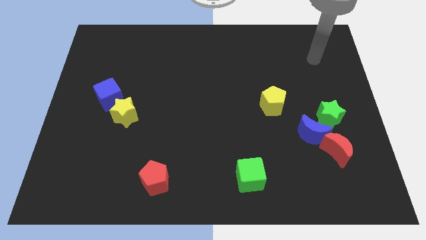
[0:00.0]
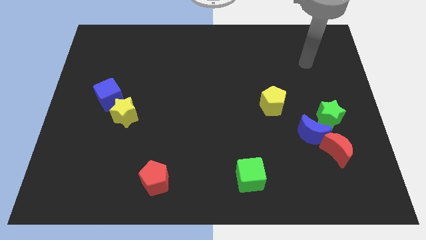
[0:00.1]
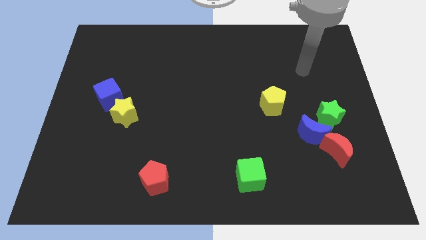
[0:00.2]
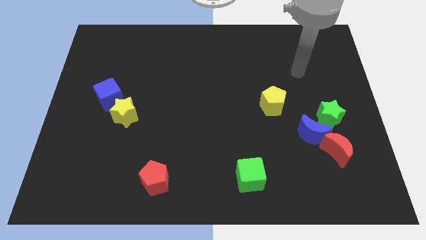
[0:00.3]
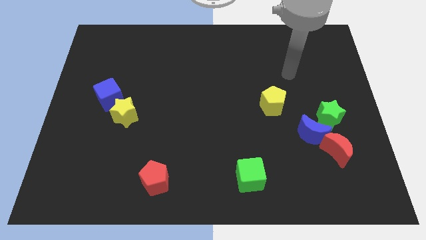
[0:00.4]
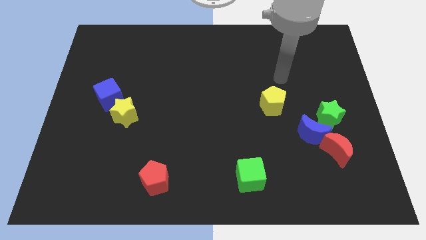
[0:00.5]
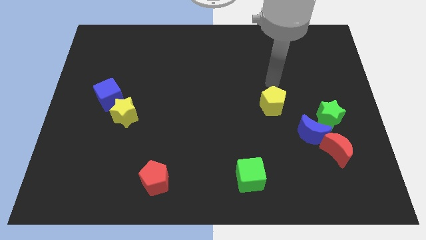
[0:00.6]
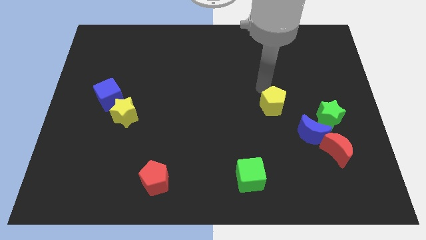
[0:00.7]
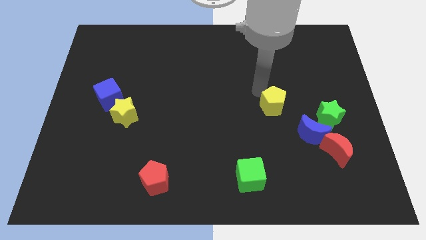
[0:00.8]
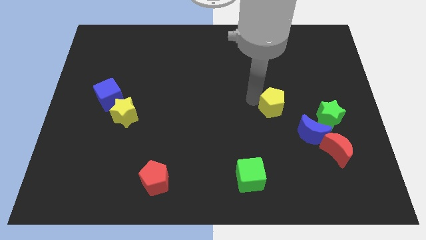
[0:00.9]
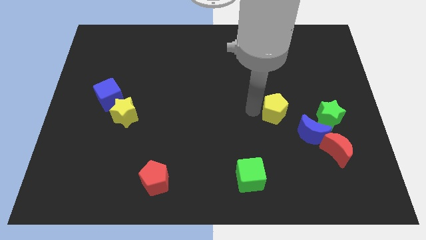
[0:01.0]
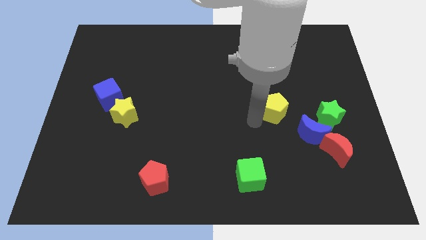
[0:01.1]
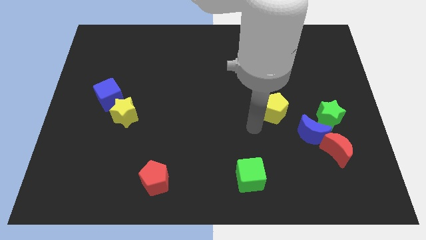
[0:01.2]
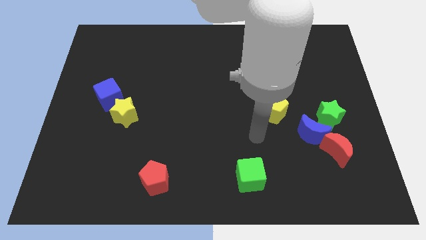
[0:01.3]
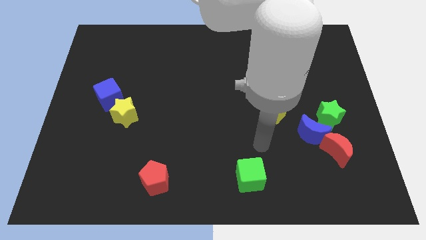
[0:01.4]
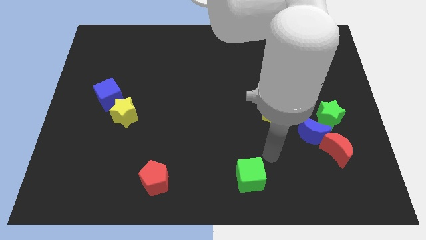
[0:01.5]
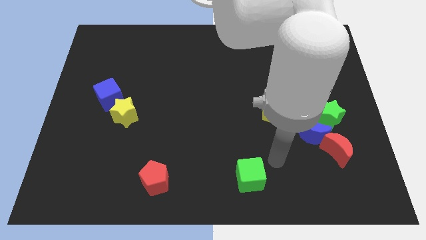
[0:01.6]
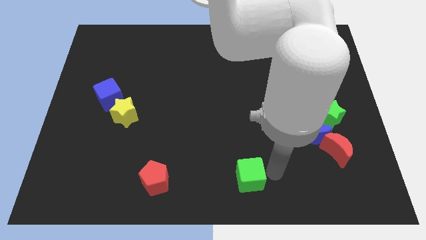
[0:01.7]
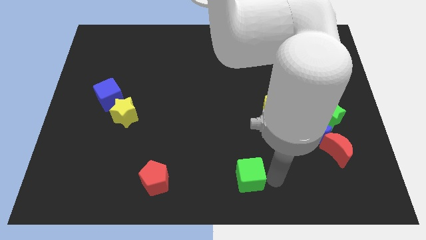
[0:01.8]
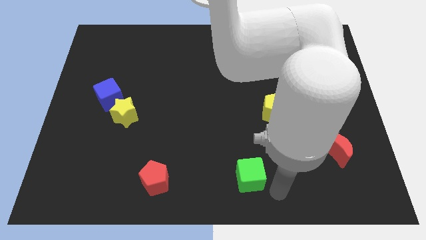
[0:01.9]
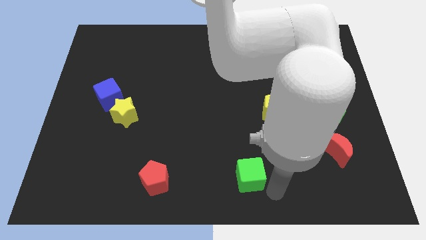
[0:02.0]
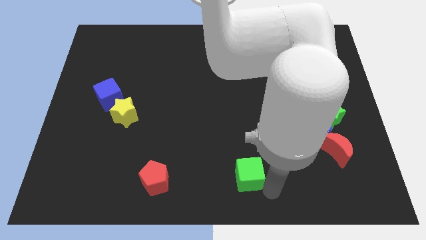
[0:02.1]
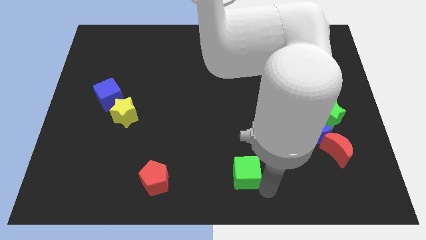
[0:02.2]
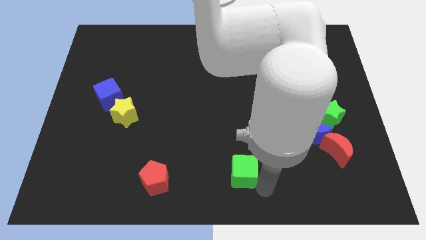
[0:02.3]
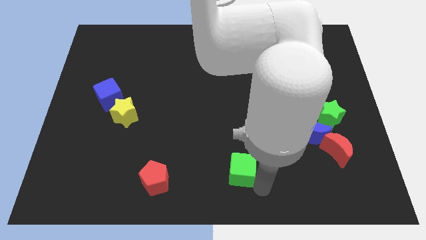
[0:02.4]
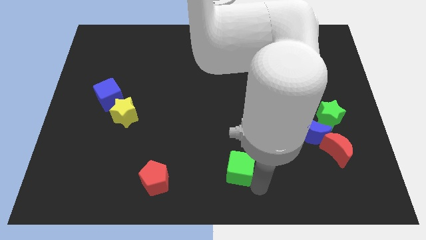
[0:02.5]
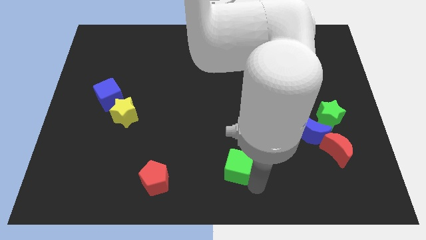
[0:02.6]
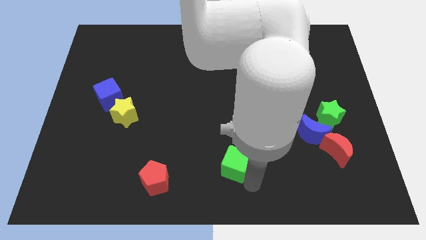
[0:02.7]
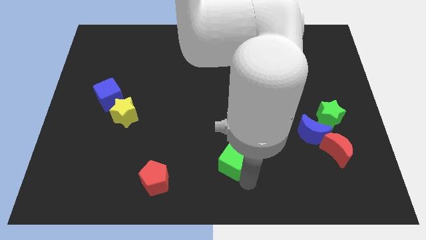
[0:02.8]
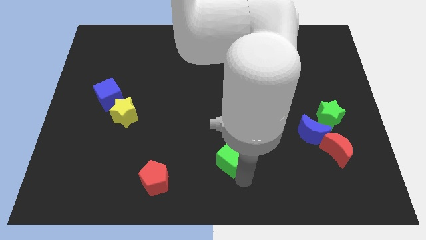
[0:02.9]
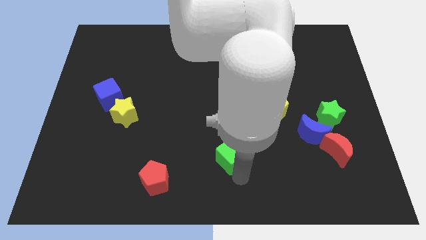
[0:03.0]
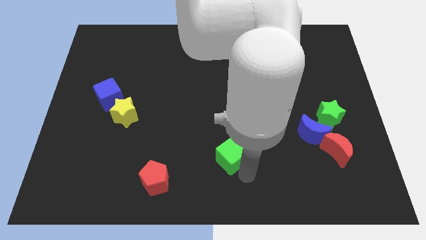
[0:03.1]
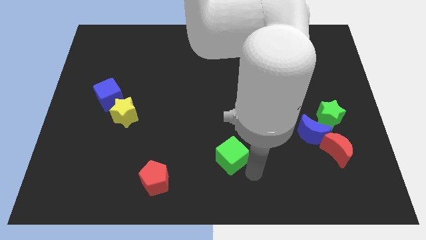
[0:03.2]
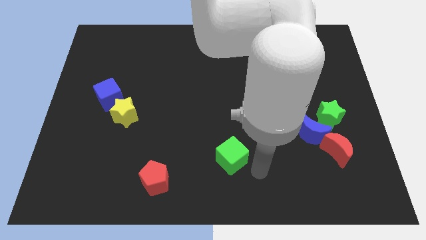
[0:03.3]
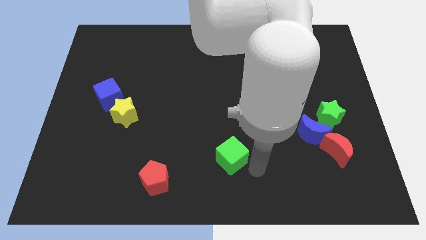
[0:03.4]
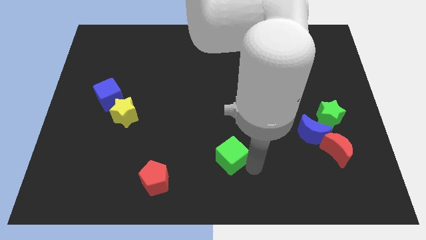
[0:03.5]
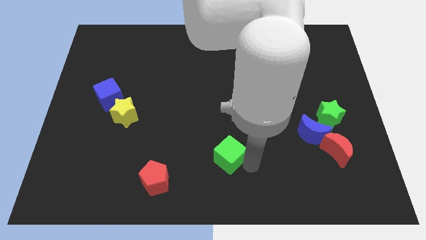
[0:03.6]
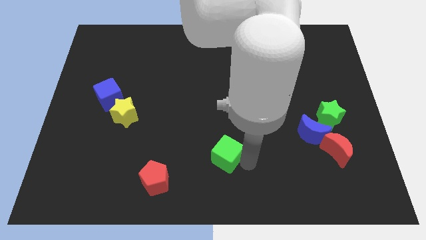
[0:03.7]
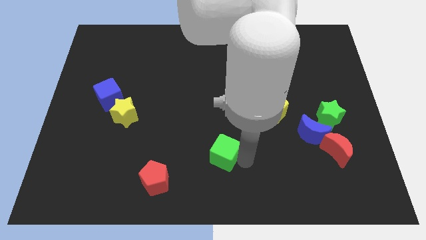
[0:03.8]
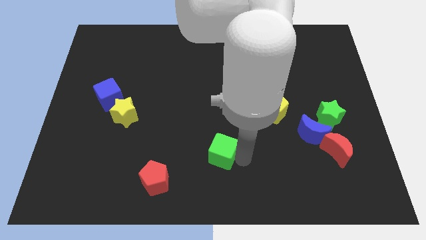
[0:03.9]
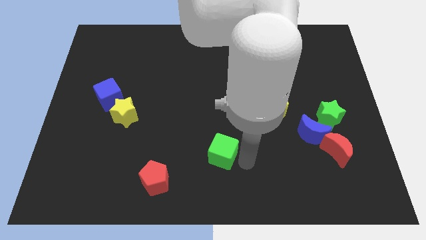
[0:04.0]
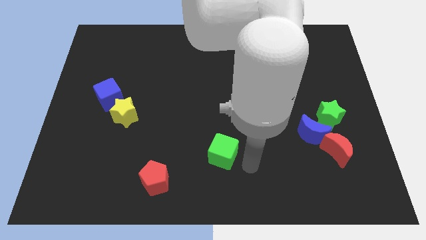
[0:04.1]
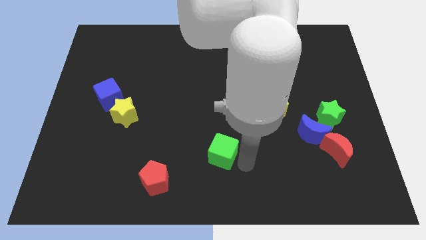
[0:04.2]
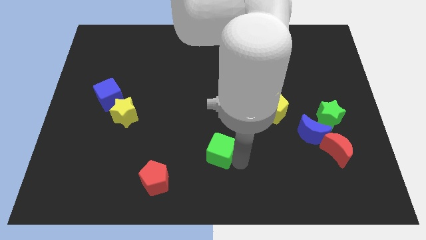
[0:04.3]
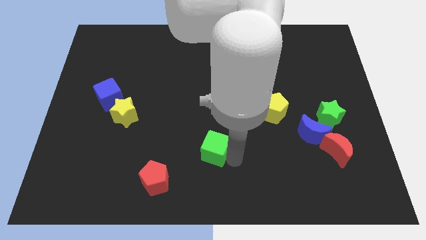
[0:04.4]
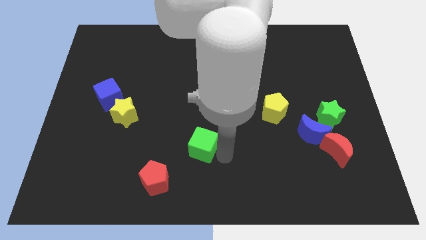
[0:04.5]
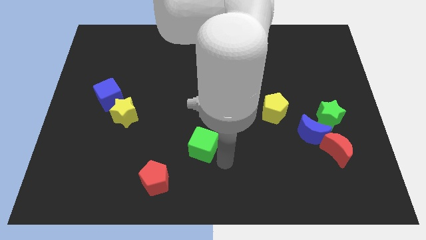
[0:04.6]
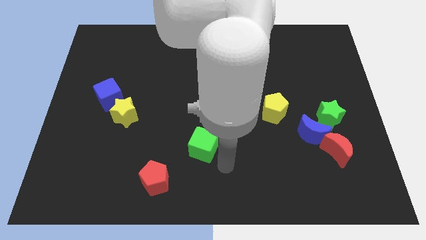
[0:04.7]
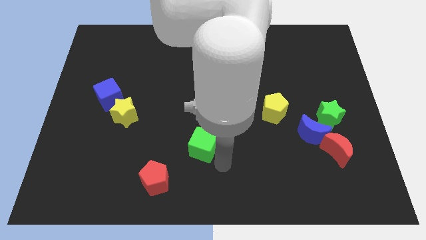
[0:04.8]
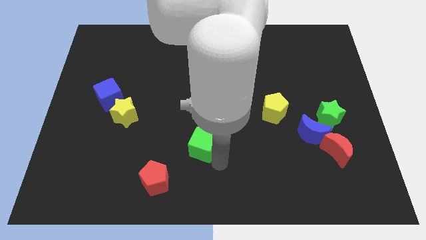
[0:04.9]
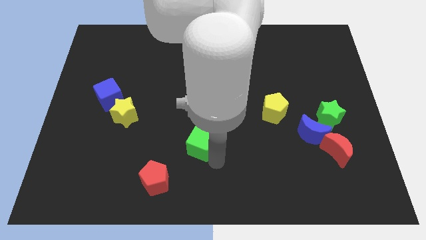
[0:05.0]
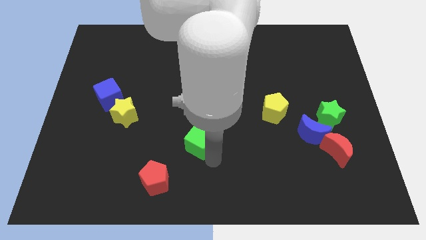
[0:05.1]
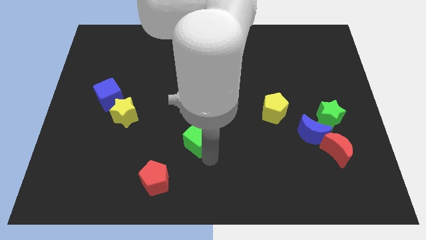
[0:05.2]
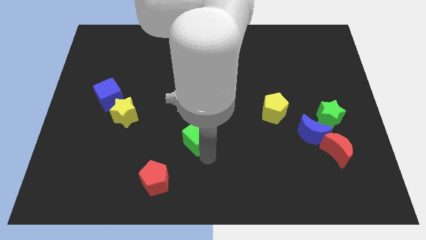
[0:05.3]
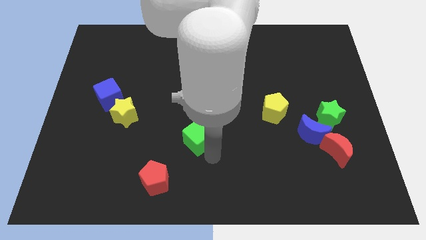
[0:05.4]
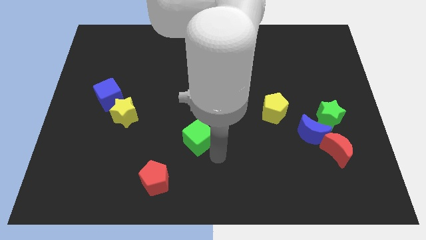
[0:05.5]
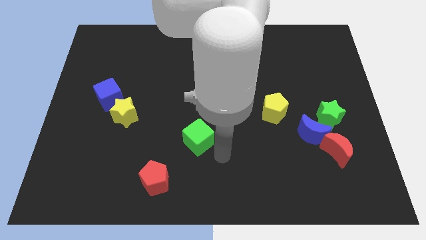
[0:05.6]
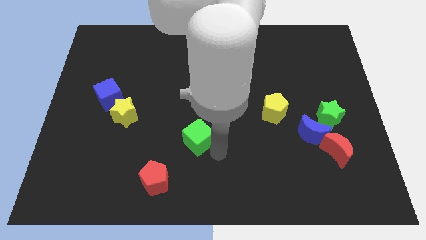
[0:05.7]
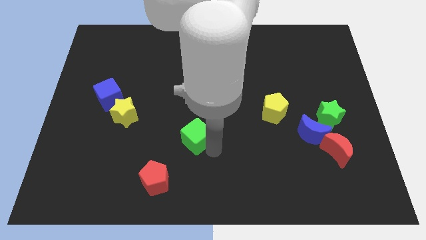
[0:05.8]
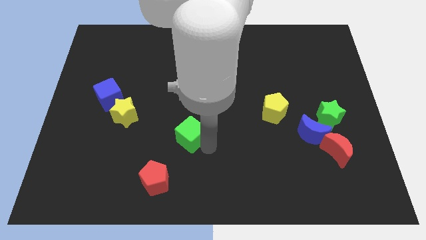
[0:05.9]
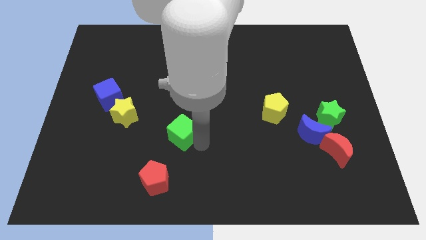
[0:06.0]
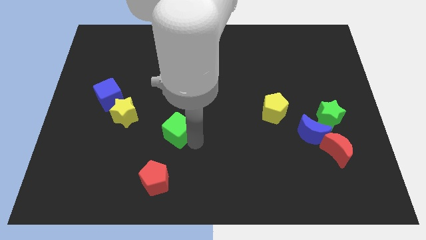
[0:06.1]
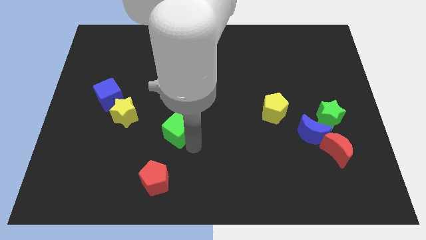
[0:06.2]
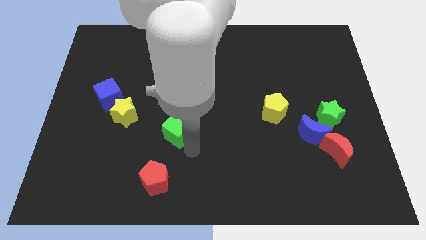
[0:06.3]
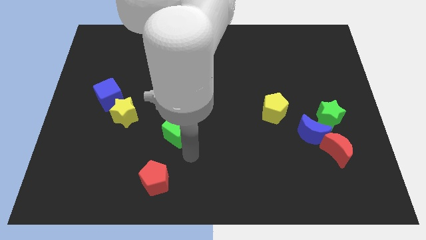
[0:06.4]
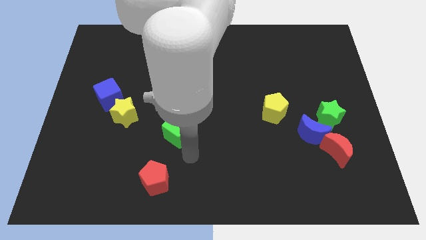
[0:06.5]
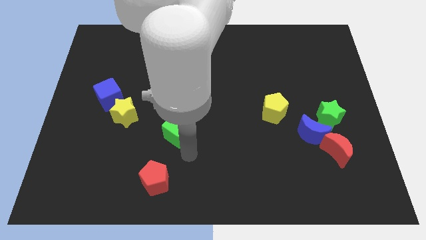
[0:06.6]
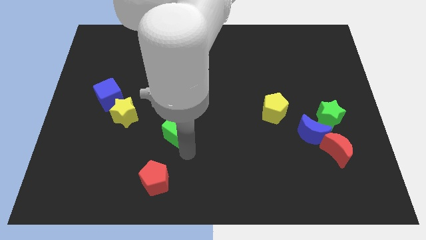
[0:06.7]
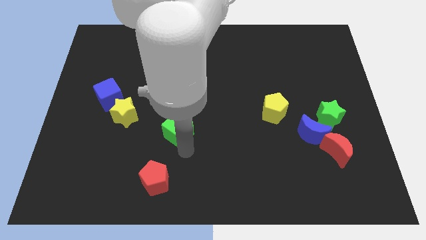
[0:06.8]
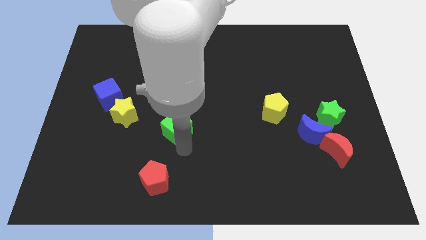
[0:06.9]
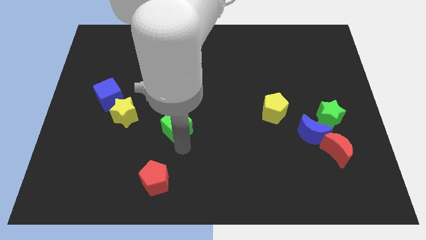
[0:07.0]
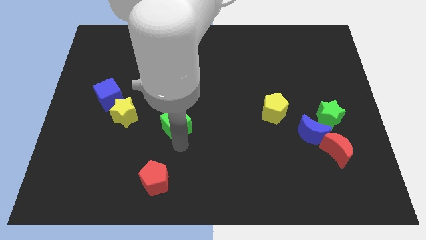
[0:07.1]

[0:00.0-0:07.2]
slide the green cube upwards and then to the left

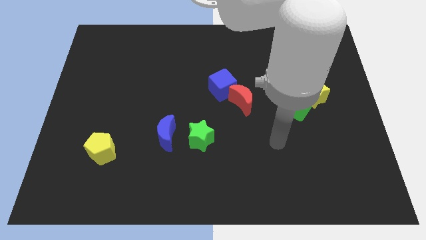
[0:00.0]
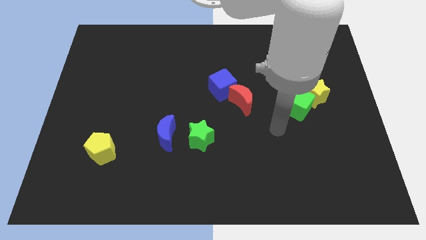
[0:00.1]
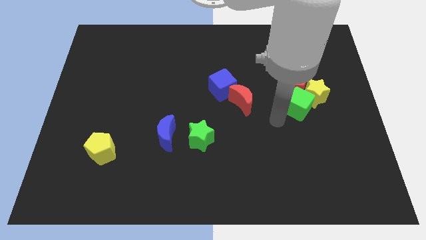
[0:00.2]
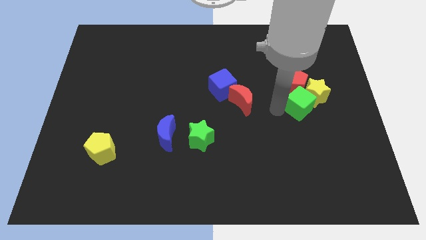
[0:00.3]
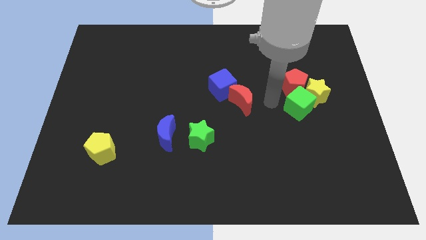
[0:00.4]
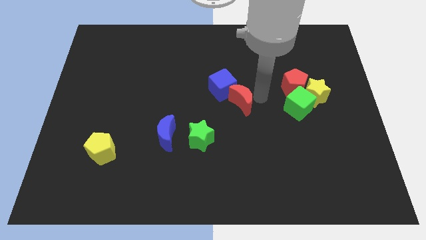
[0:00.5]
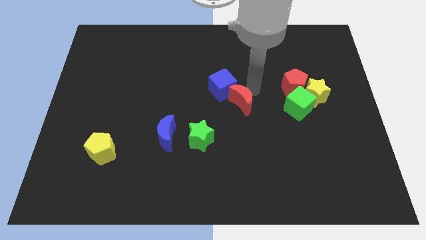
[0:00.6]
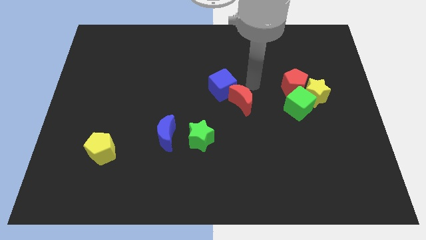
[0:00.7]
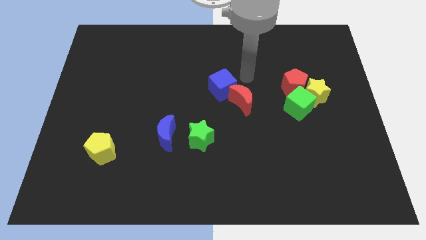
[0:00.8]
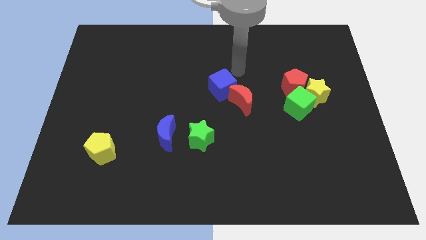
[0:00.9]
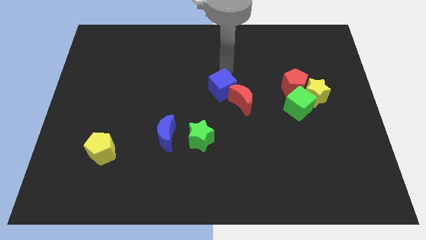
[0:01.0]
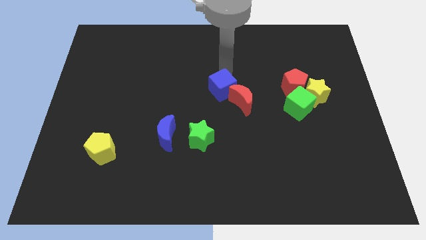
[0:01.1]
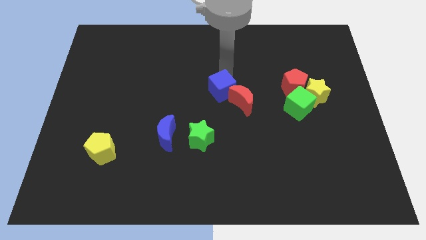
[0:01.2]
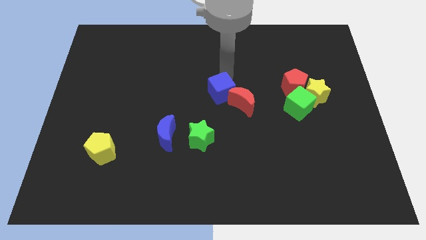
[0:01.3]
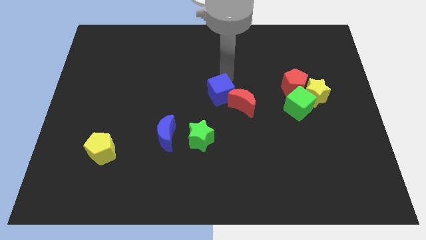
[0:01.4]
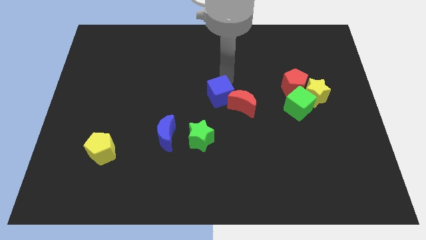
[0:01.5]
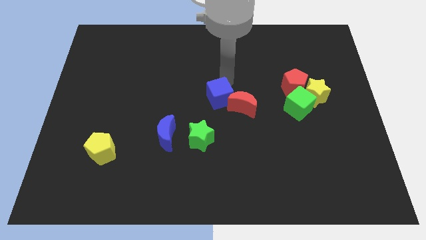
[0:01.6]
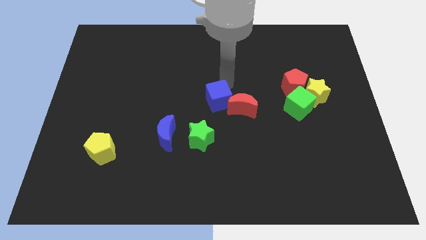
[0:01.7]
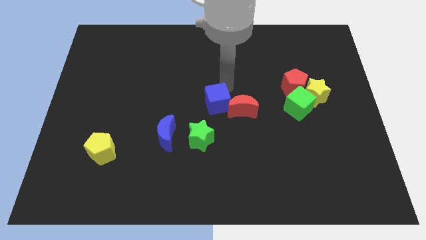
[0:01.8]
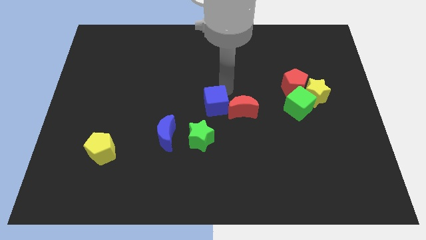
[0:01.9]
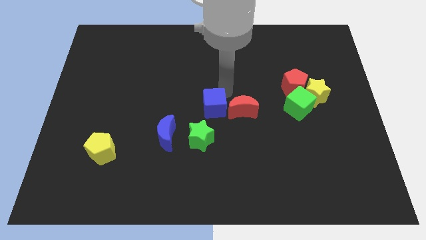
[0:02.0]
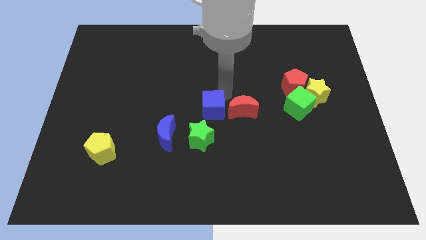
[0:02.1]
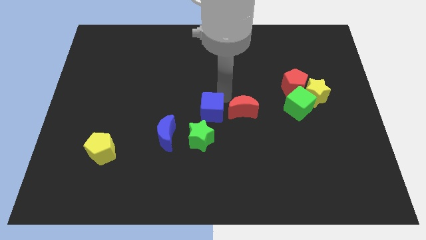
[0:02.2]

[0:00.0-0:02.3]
move the blue cube down a little
